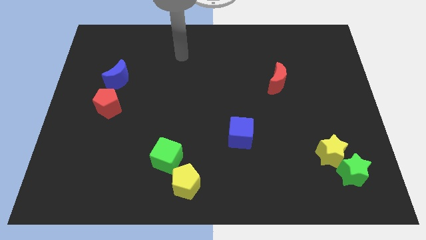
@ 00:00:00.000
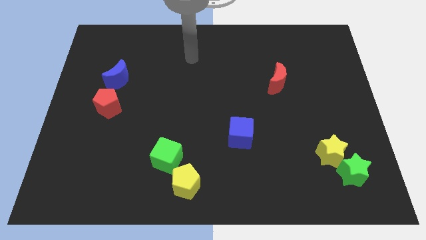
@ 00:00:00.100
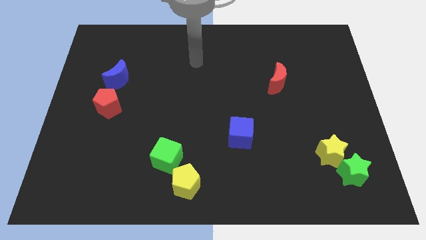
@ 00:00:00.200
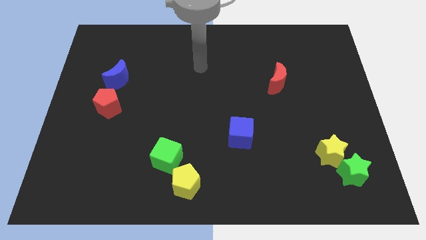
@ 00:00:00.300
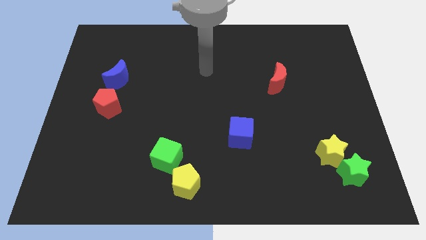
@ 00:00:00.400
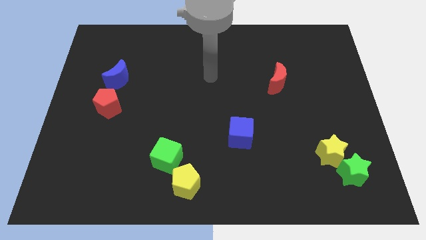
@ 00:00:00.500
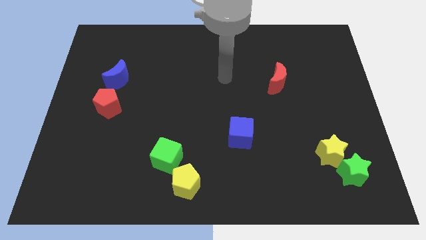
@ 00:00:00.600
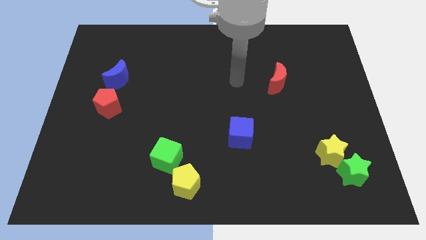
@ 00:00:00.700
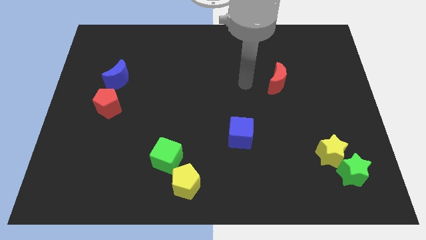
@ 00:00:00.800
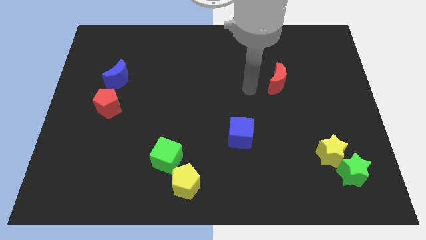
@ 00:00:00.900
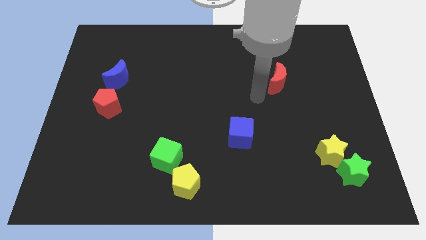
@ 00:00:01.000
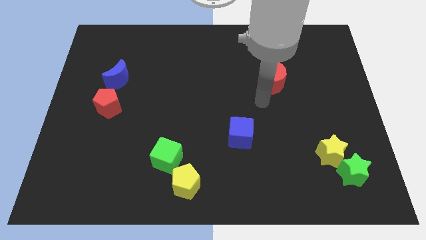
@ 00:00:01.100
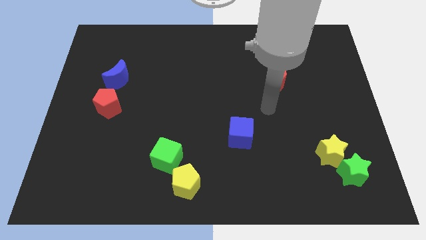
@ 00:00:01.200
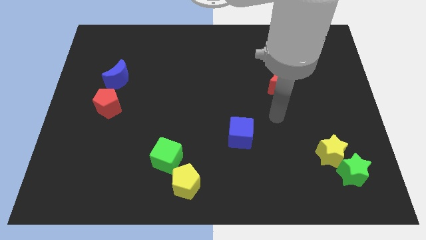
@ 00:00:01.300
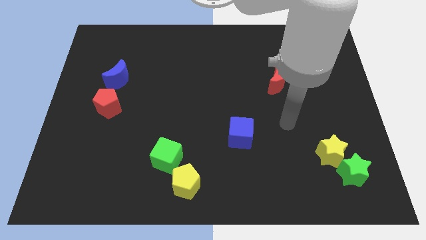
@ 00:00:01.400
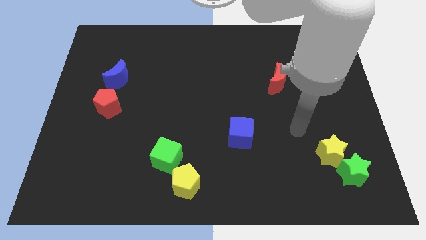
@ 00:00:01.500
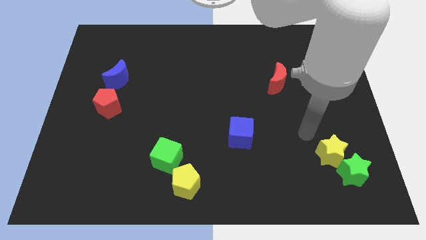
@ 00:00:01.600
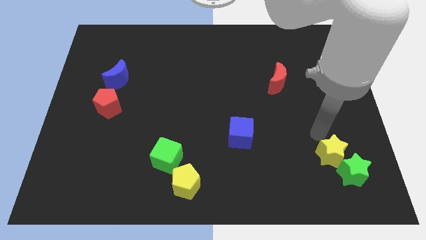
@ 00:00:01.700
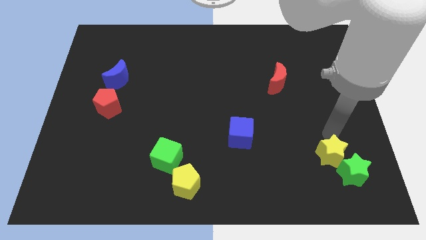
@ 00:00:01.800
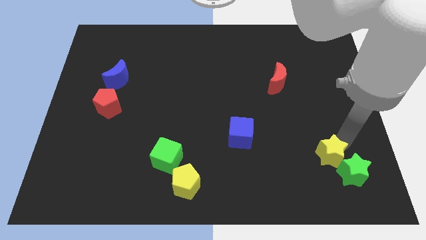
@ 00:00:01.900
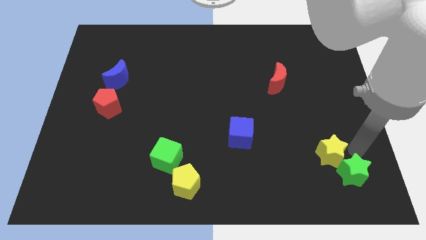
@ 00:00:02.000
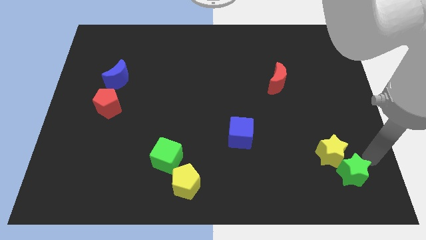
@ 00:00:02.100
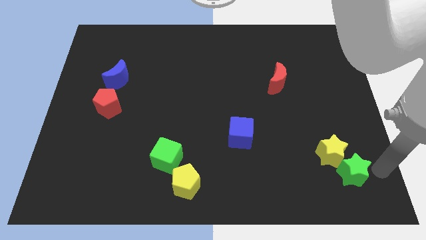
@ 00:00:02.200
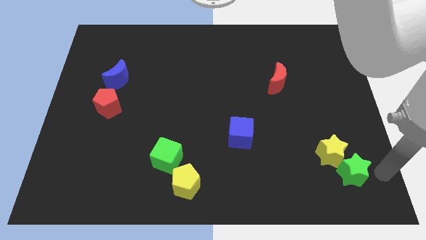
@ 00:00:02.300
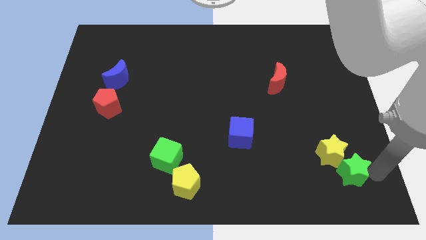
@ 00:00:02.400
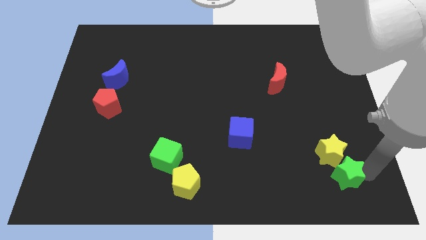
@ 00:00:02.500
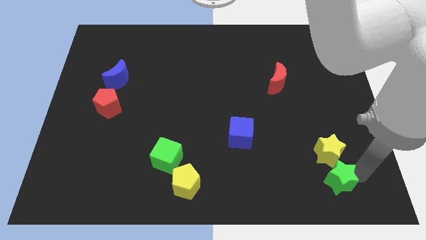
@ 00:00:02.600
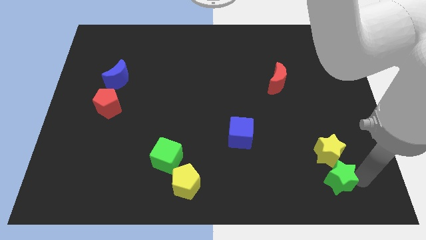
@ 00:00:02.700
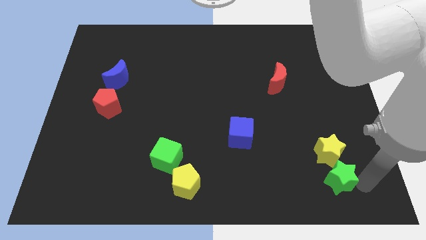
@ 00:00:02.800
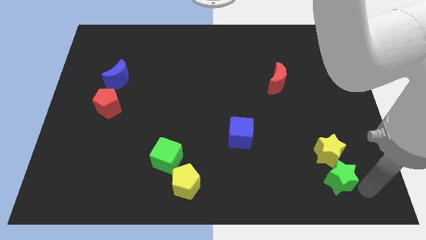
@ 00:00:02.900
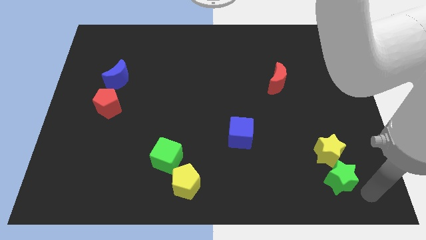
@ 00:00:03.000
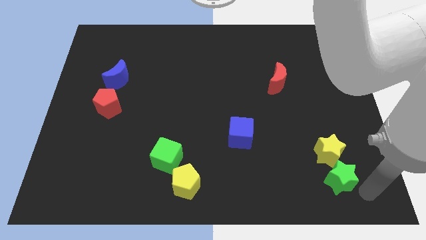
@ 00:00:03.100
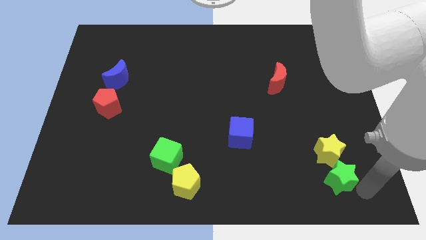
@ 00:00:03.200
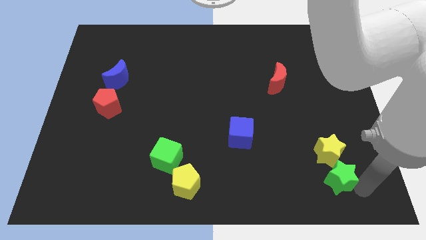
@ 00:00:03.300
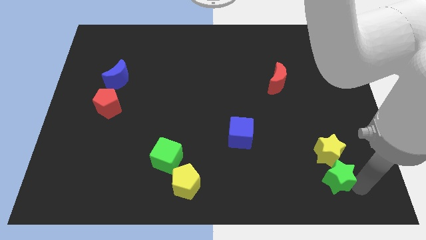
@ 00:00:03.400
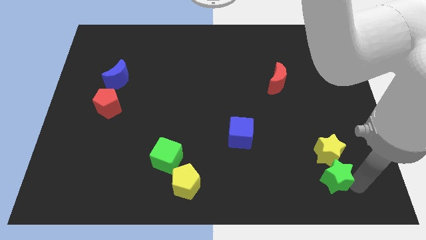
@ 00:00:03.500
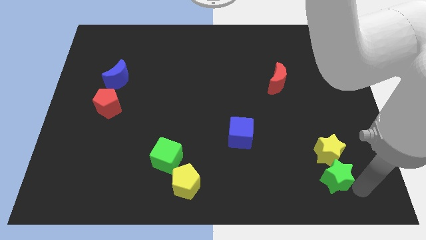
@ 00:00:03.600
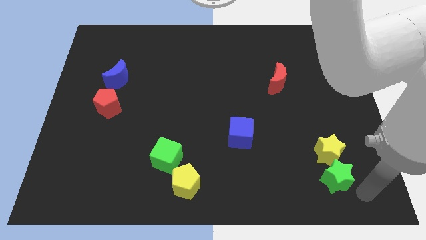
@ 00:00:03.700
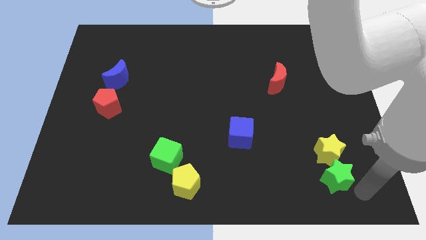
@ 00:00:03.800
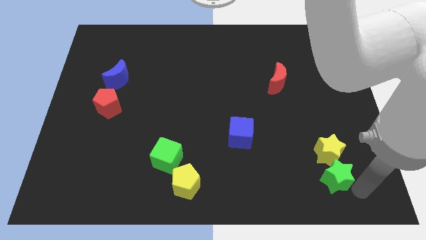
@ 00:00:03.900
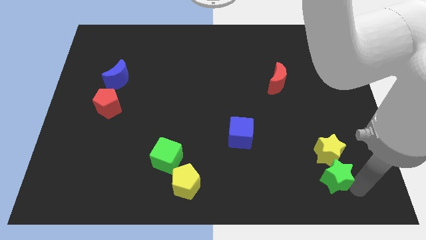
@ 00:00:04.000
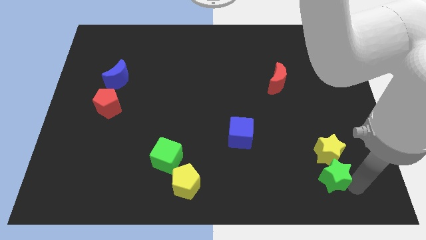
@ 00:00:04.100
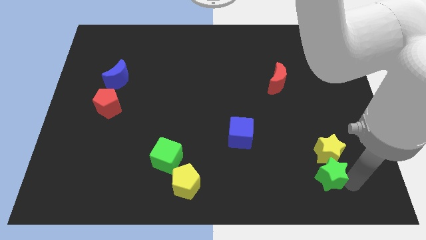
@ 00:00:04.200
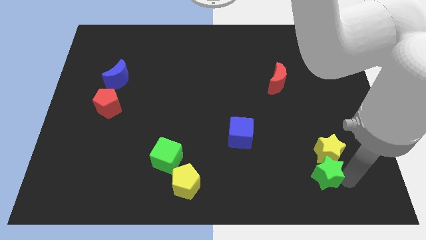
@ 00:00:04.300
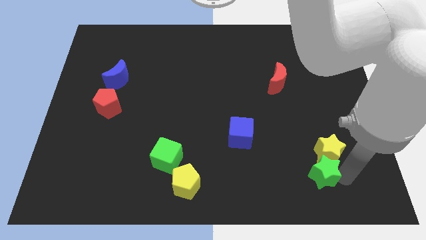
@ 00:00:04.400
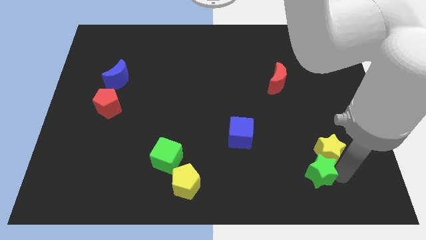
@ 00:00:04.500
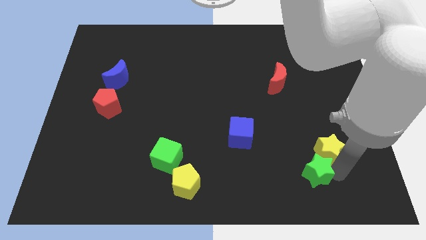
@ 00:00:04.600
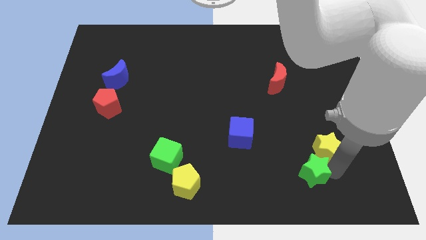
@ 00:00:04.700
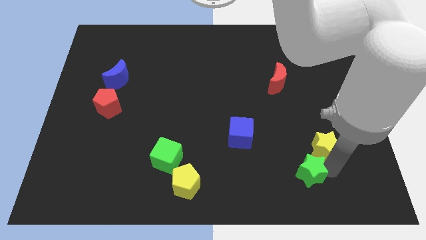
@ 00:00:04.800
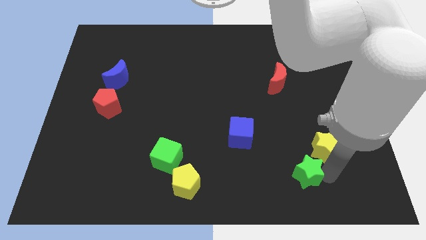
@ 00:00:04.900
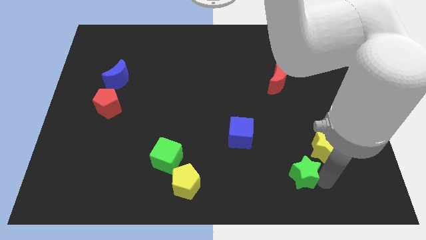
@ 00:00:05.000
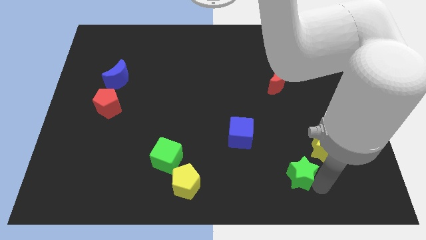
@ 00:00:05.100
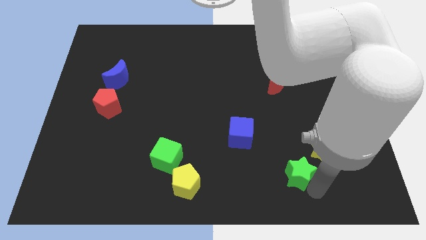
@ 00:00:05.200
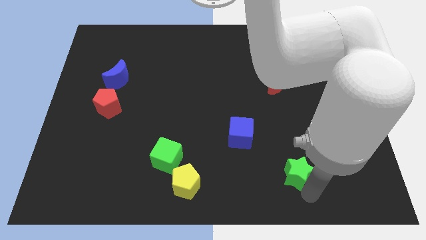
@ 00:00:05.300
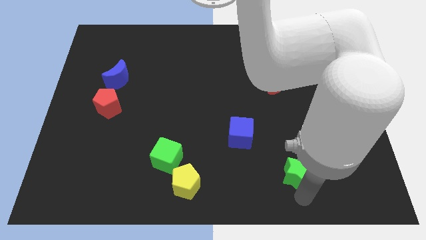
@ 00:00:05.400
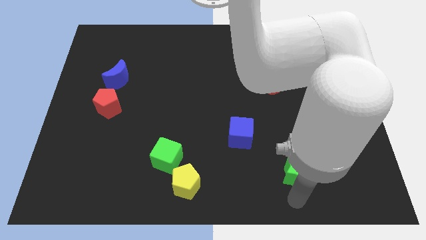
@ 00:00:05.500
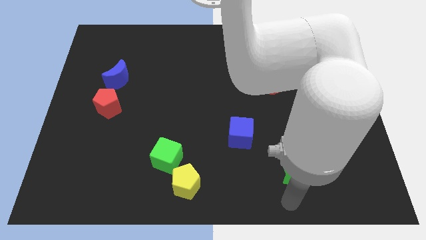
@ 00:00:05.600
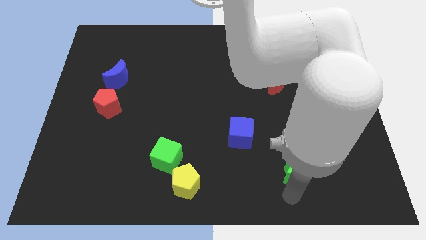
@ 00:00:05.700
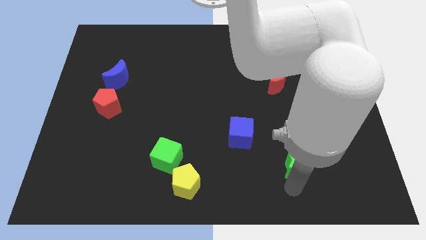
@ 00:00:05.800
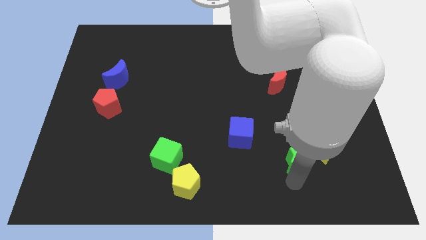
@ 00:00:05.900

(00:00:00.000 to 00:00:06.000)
slide the green star diagonally up and left a bit

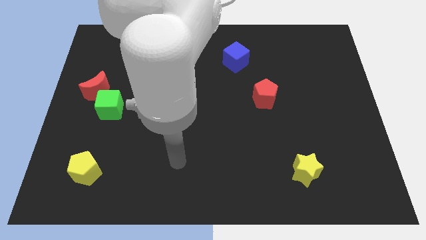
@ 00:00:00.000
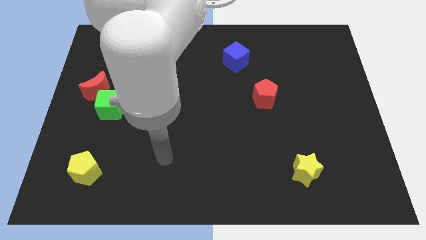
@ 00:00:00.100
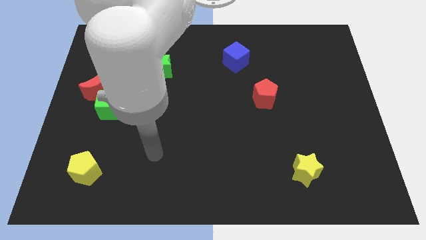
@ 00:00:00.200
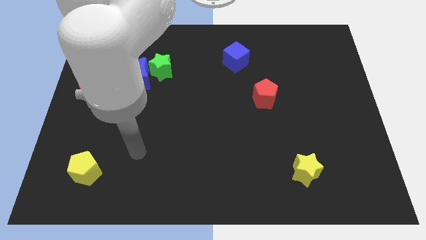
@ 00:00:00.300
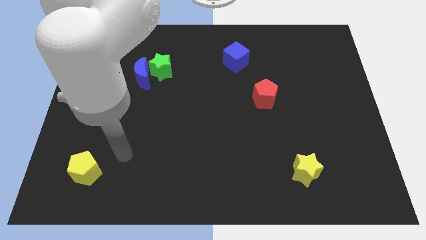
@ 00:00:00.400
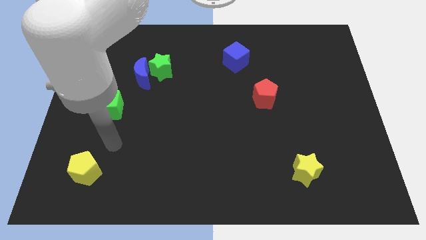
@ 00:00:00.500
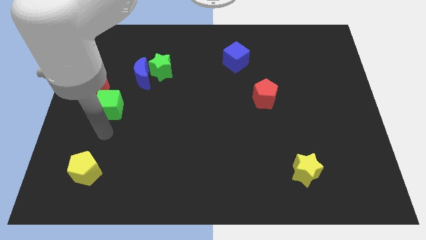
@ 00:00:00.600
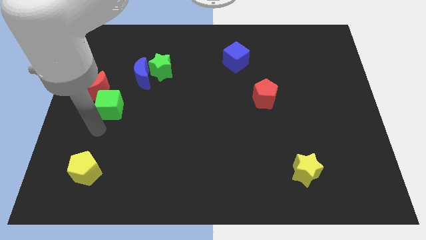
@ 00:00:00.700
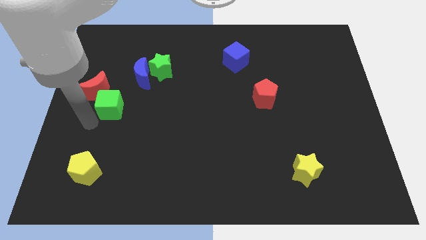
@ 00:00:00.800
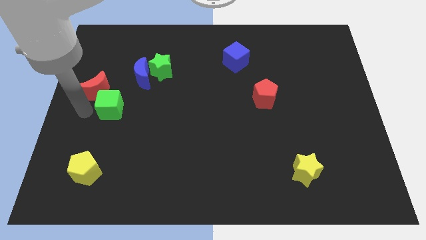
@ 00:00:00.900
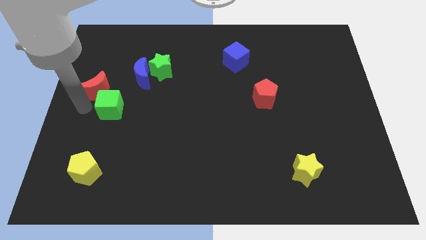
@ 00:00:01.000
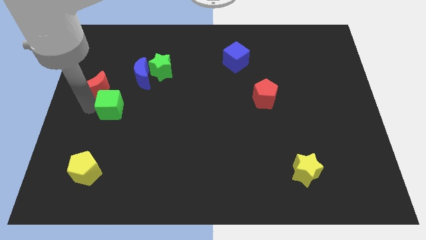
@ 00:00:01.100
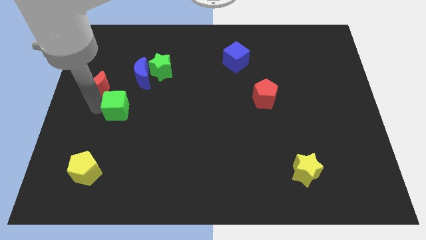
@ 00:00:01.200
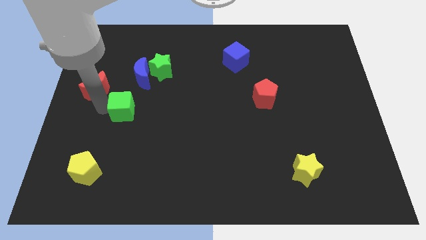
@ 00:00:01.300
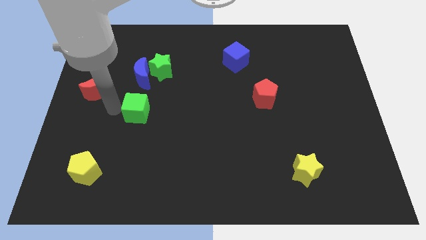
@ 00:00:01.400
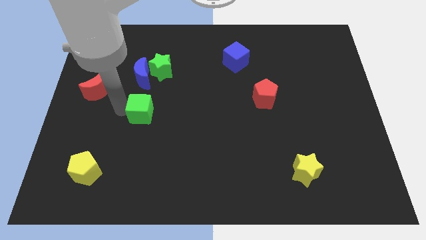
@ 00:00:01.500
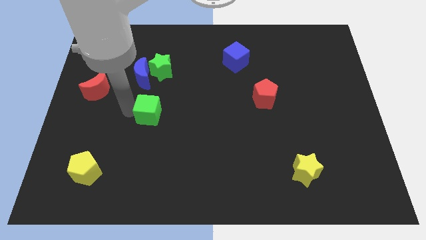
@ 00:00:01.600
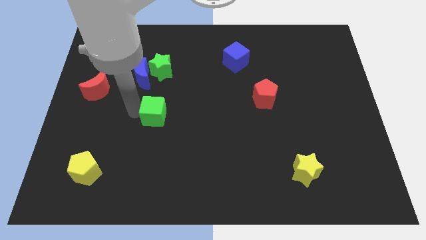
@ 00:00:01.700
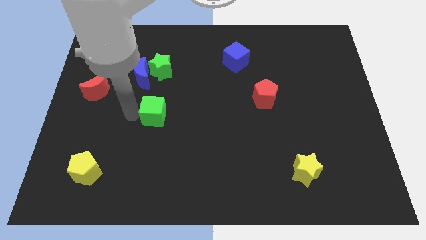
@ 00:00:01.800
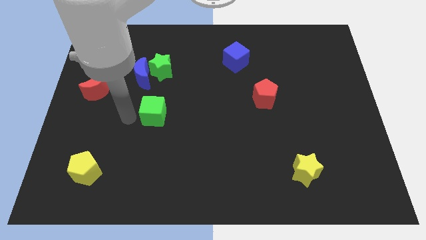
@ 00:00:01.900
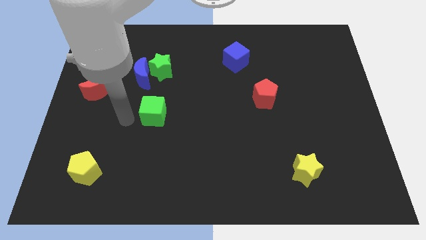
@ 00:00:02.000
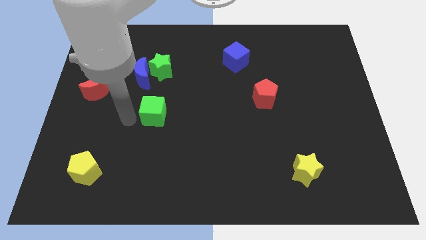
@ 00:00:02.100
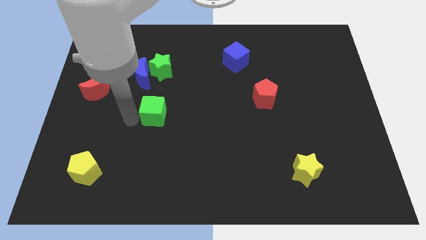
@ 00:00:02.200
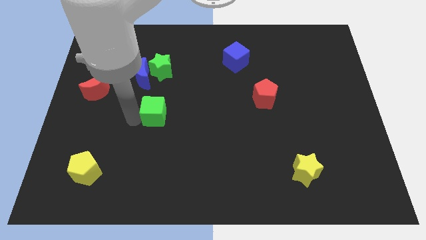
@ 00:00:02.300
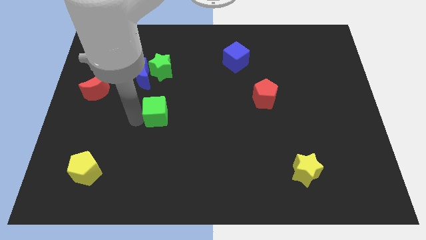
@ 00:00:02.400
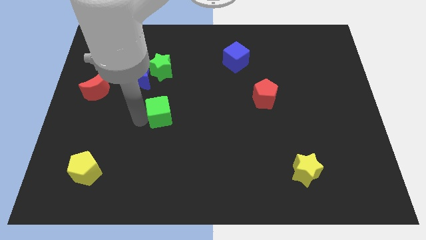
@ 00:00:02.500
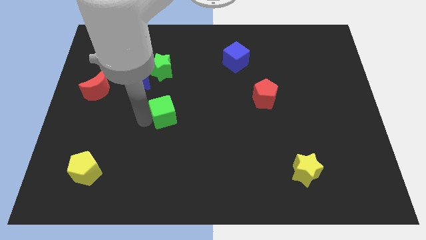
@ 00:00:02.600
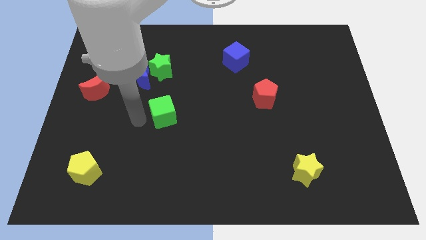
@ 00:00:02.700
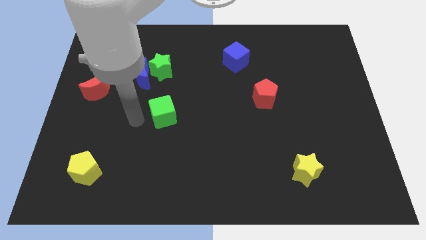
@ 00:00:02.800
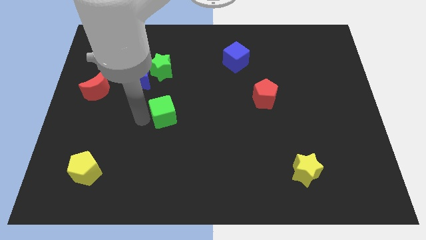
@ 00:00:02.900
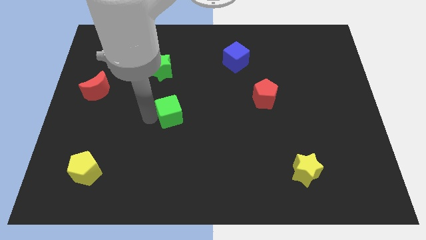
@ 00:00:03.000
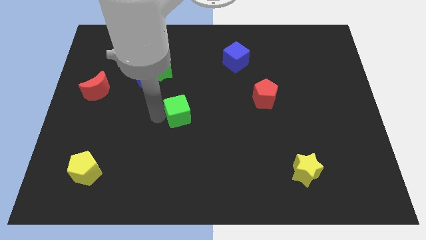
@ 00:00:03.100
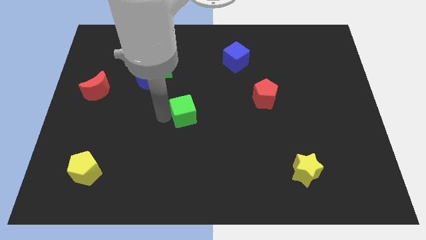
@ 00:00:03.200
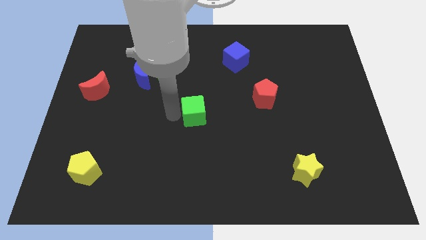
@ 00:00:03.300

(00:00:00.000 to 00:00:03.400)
move the green cube to the right
